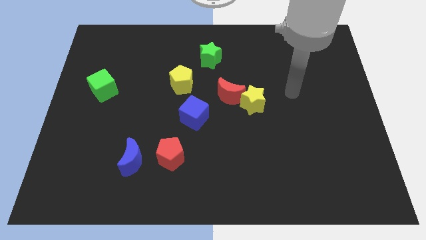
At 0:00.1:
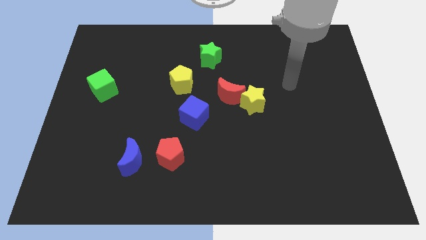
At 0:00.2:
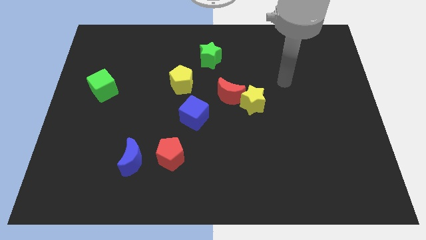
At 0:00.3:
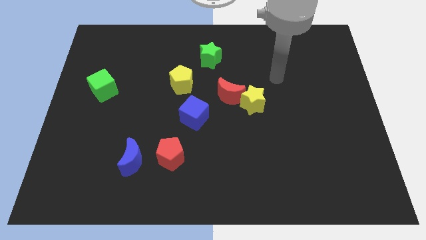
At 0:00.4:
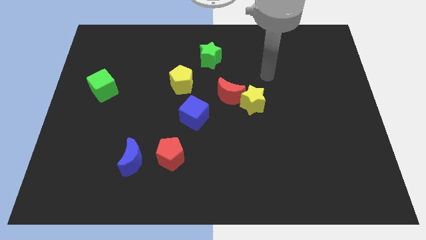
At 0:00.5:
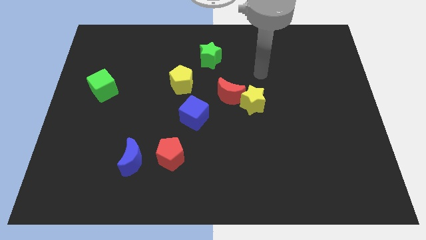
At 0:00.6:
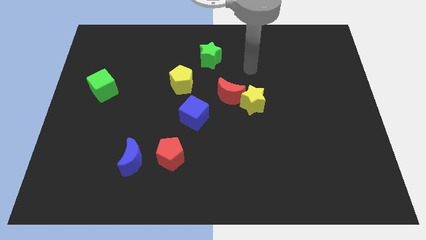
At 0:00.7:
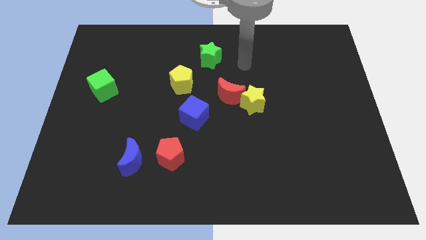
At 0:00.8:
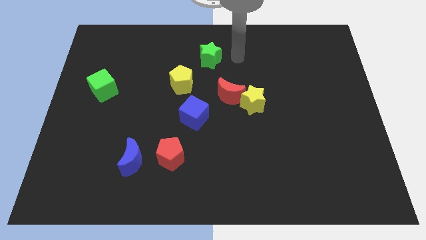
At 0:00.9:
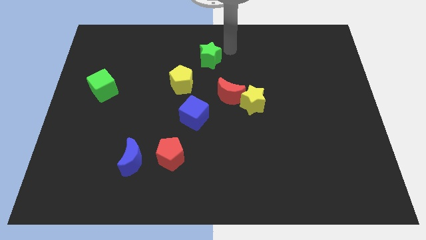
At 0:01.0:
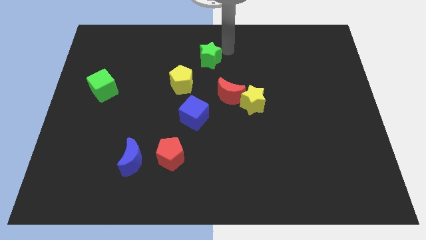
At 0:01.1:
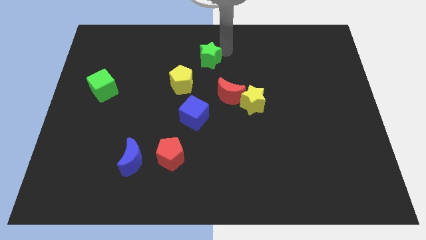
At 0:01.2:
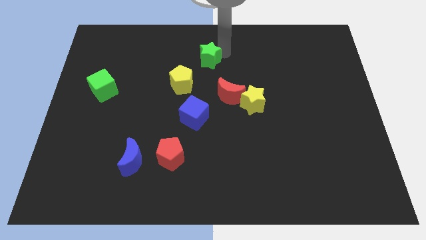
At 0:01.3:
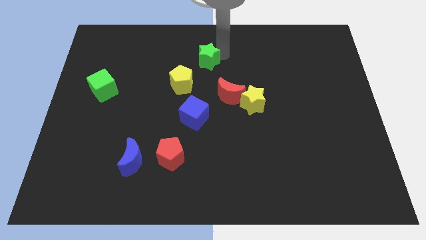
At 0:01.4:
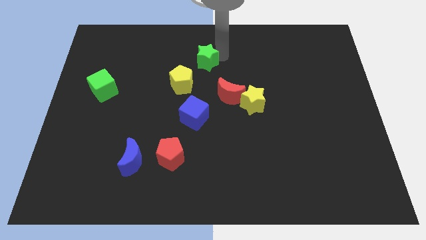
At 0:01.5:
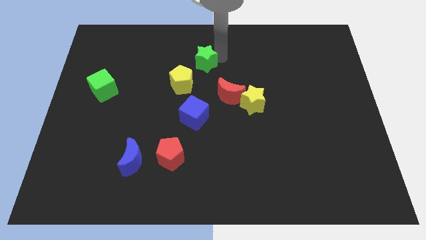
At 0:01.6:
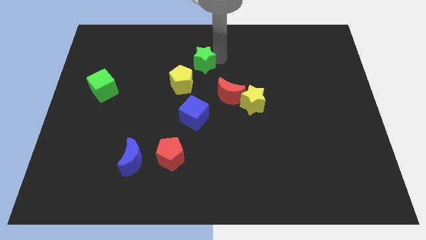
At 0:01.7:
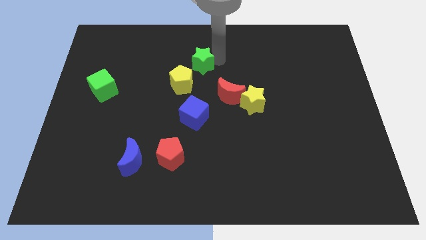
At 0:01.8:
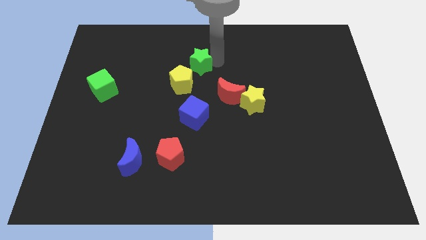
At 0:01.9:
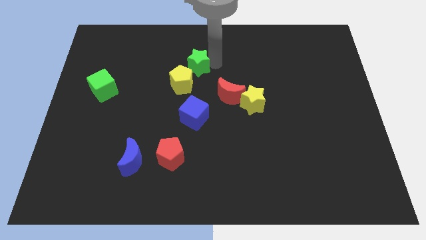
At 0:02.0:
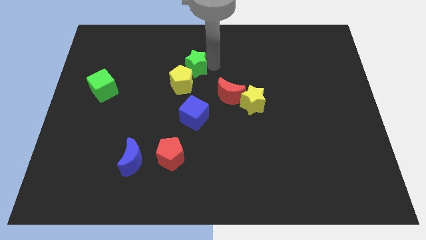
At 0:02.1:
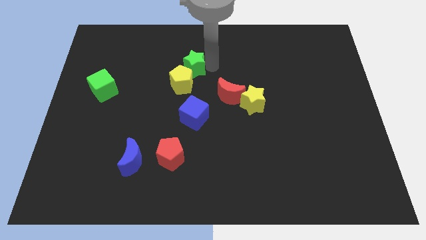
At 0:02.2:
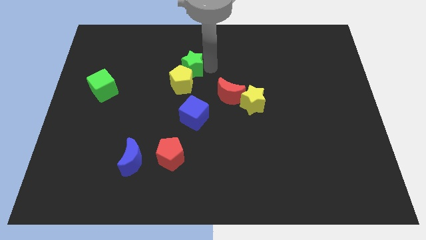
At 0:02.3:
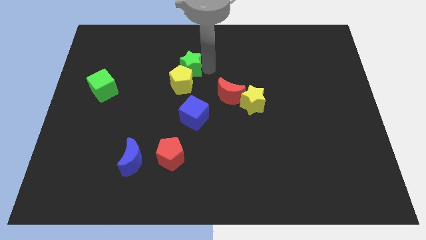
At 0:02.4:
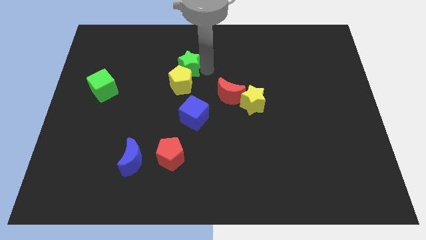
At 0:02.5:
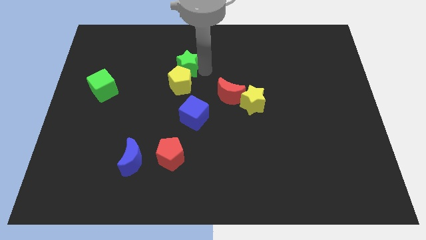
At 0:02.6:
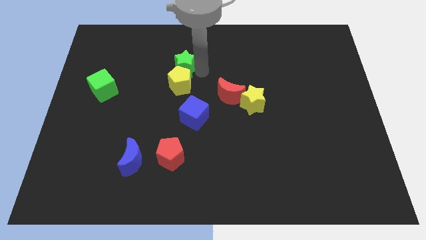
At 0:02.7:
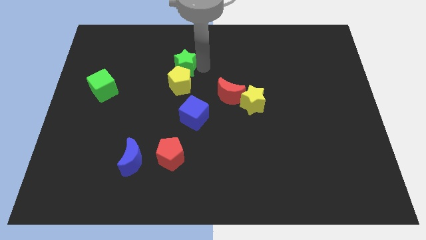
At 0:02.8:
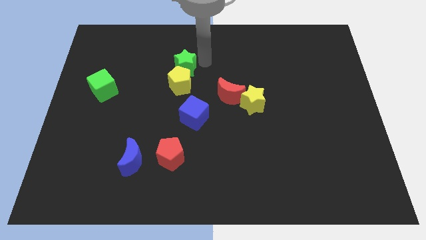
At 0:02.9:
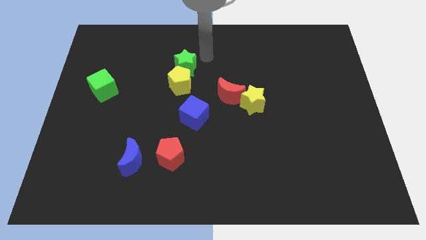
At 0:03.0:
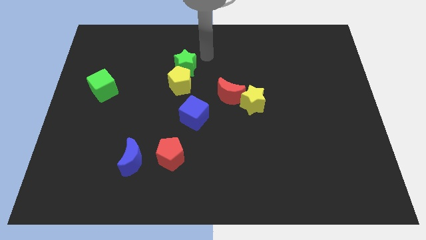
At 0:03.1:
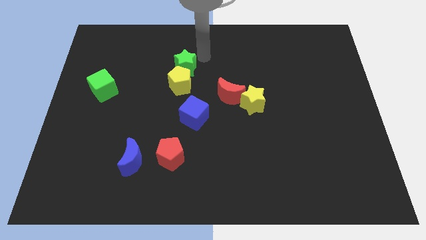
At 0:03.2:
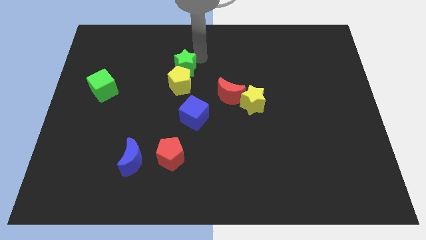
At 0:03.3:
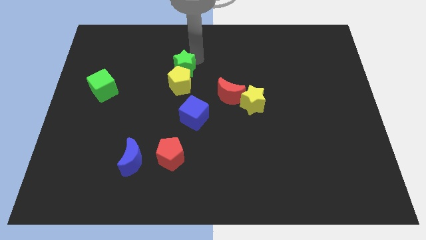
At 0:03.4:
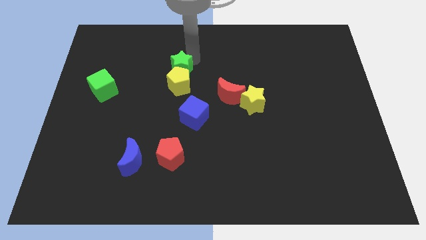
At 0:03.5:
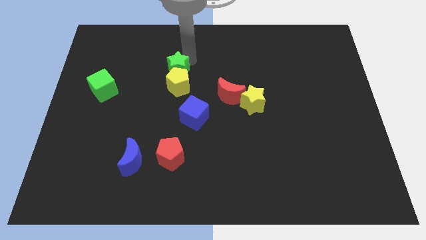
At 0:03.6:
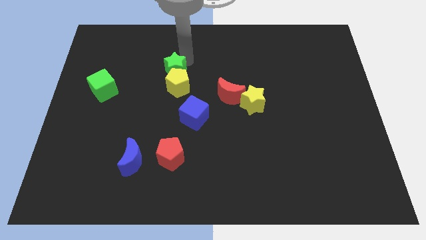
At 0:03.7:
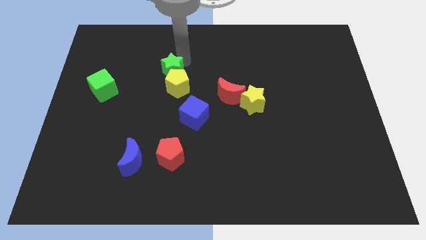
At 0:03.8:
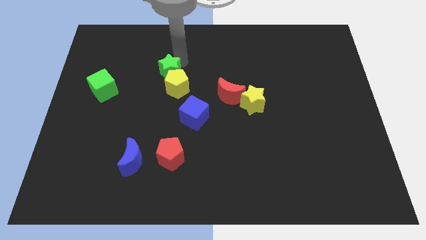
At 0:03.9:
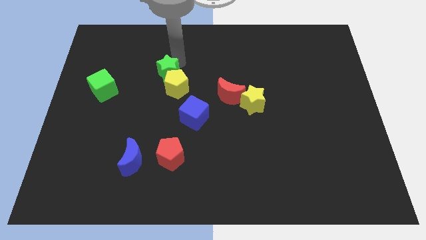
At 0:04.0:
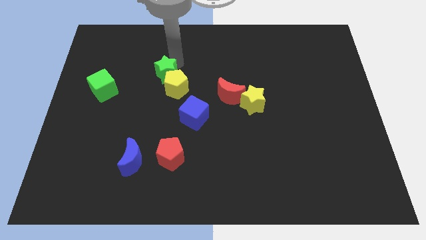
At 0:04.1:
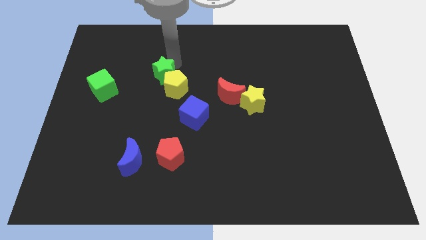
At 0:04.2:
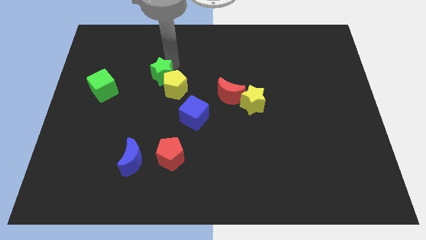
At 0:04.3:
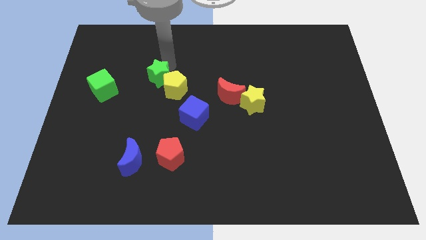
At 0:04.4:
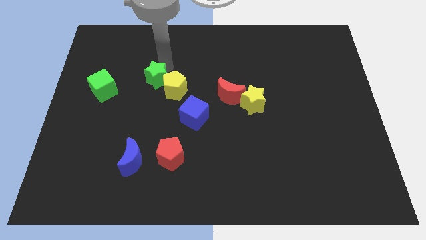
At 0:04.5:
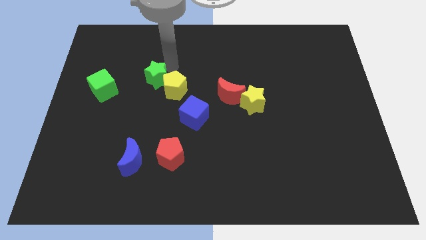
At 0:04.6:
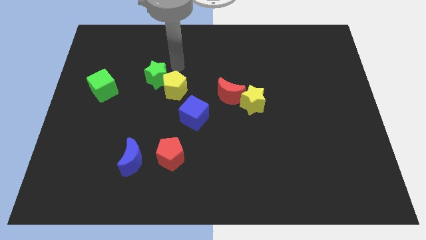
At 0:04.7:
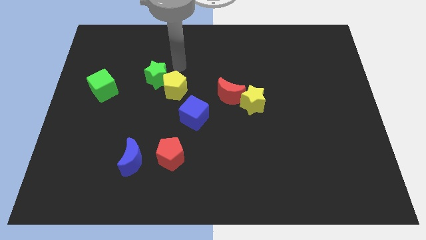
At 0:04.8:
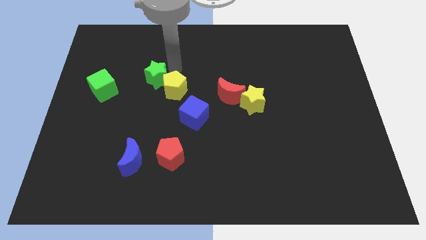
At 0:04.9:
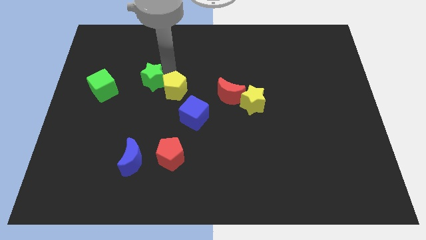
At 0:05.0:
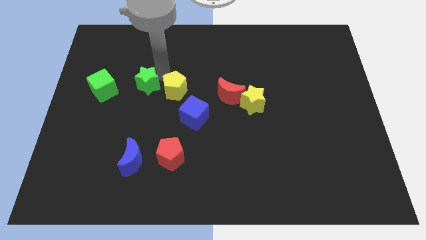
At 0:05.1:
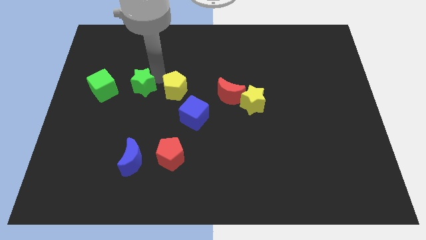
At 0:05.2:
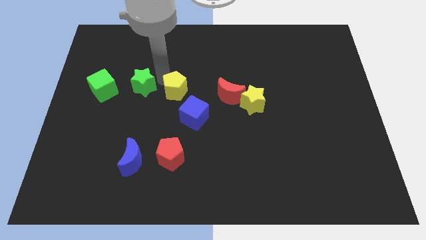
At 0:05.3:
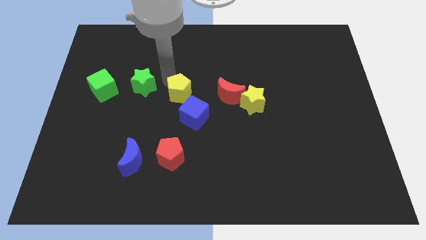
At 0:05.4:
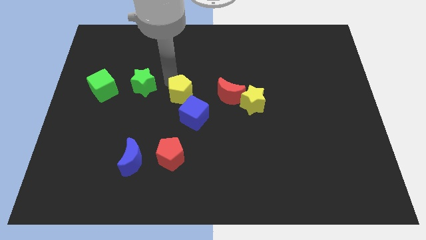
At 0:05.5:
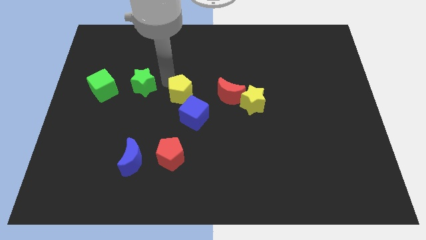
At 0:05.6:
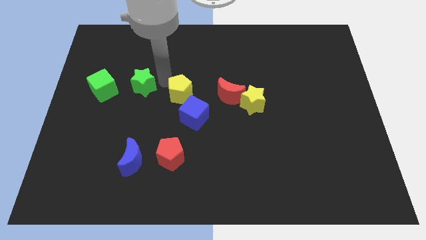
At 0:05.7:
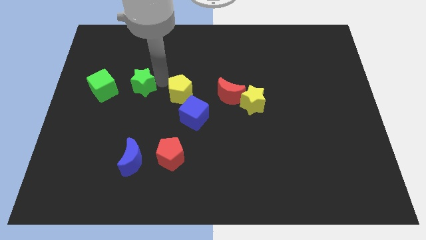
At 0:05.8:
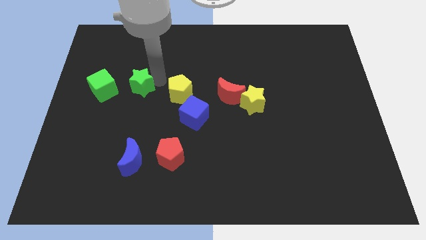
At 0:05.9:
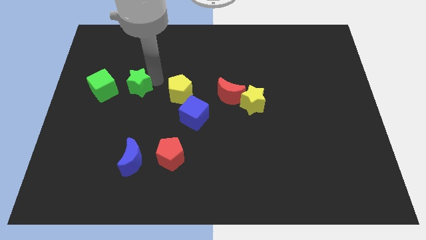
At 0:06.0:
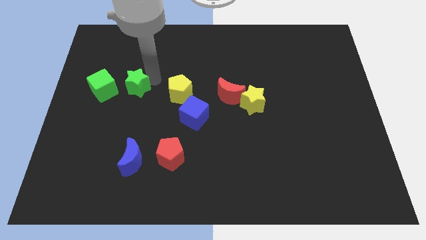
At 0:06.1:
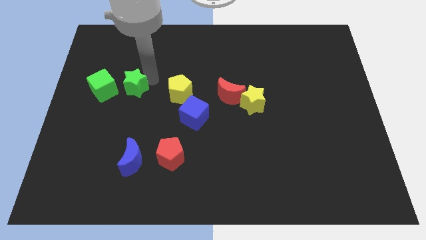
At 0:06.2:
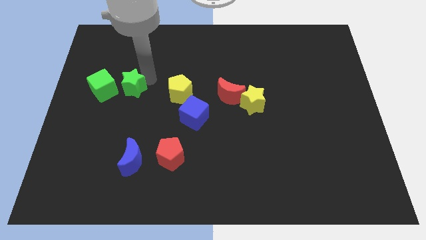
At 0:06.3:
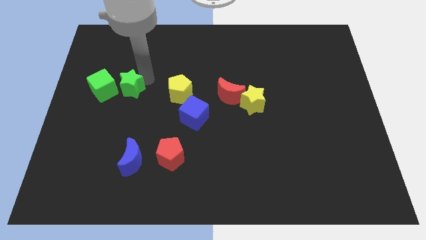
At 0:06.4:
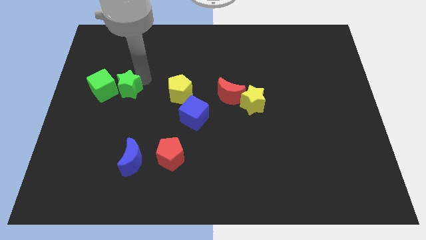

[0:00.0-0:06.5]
push the green star next to the green cube

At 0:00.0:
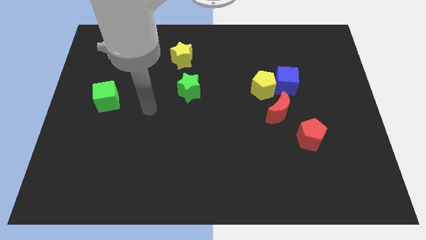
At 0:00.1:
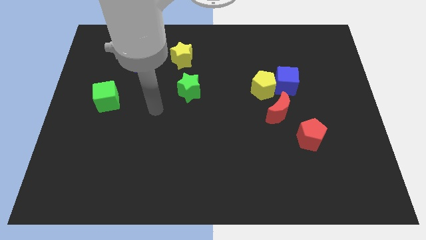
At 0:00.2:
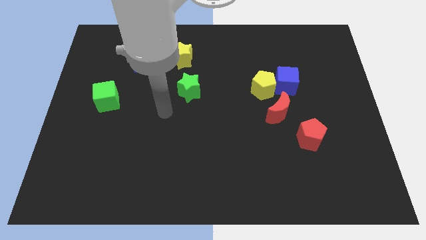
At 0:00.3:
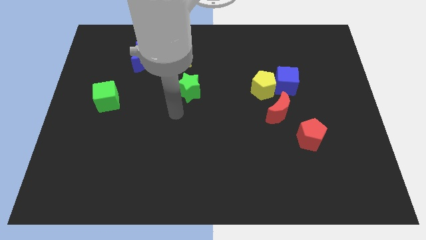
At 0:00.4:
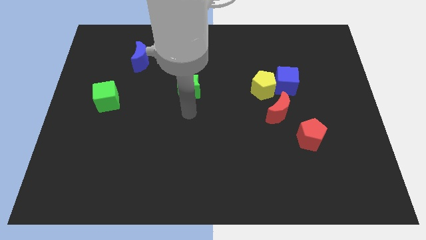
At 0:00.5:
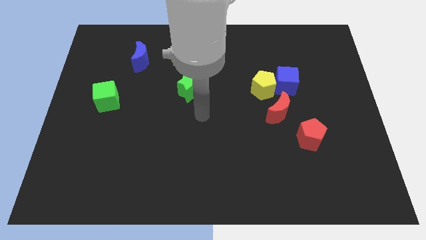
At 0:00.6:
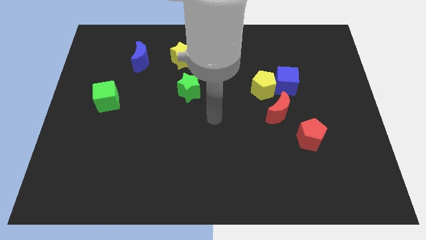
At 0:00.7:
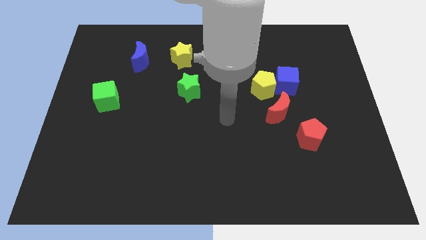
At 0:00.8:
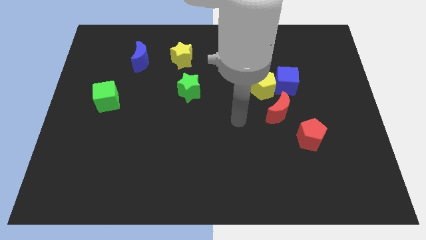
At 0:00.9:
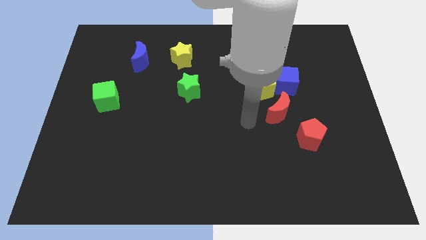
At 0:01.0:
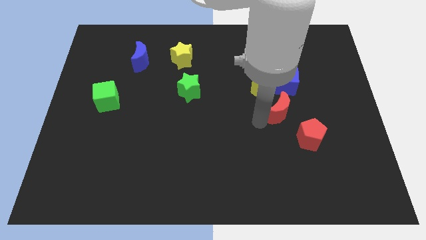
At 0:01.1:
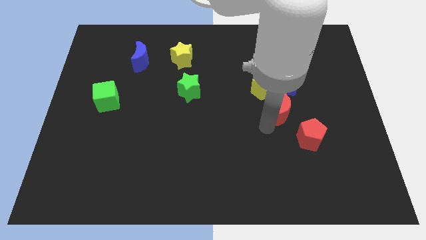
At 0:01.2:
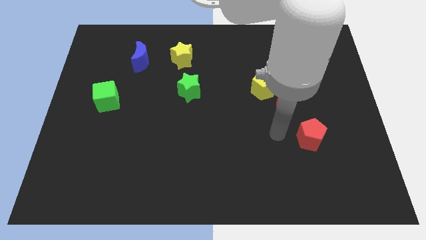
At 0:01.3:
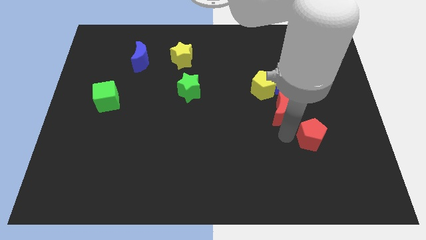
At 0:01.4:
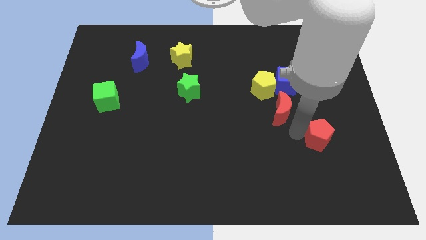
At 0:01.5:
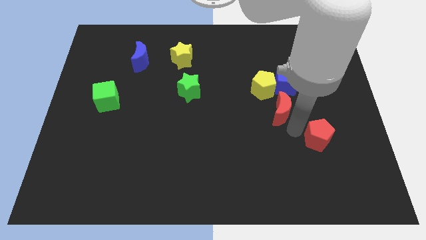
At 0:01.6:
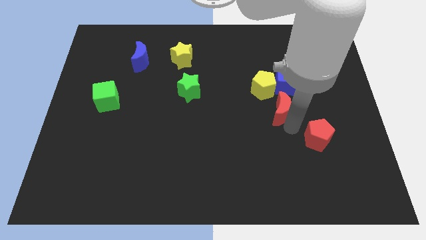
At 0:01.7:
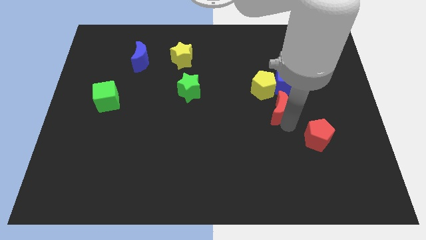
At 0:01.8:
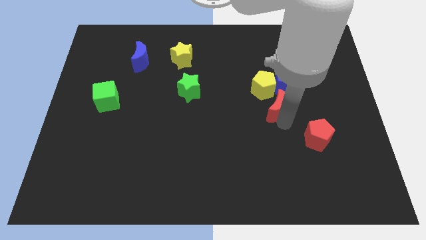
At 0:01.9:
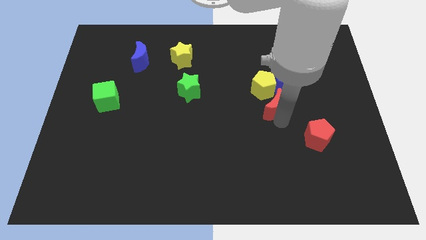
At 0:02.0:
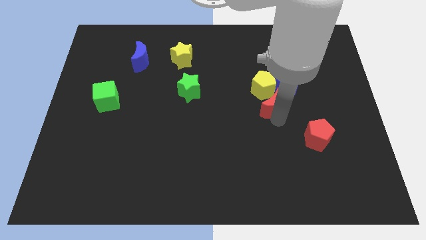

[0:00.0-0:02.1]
push the red moon next to the yellow pentagon
